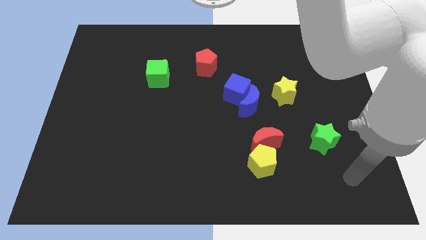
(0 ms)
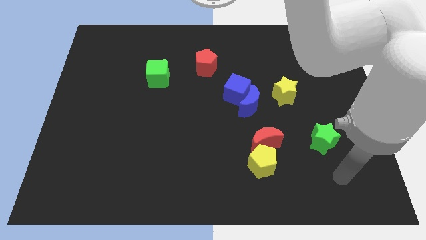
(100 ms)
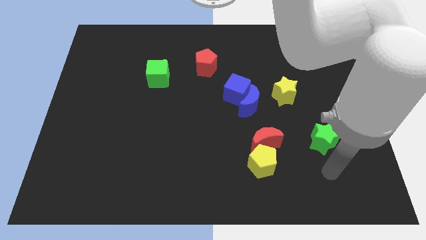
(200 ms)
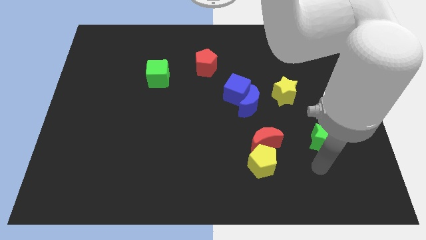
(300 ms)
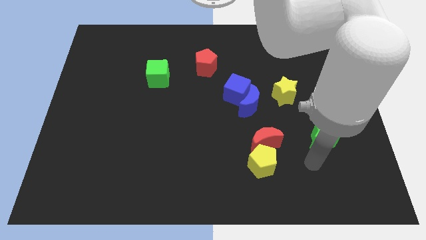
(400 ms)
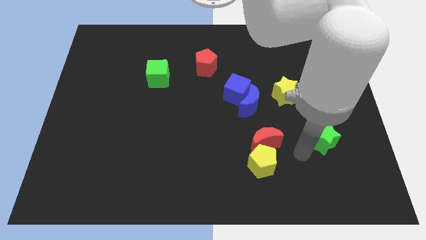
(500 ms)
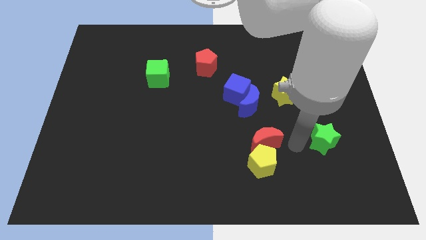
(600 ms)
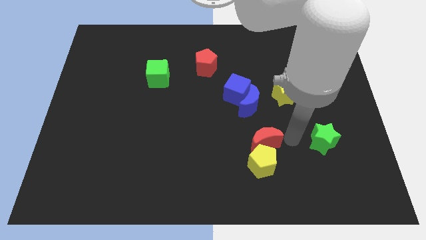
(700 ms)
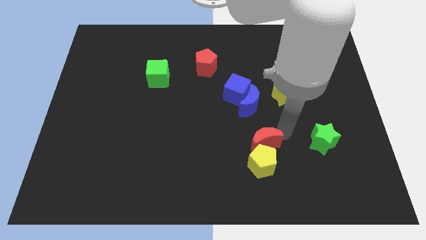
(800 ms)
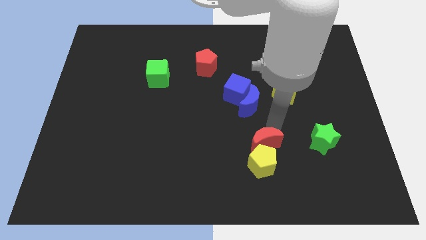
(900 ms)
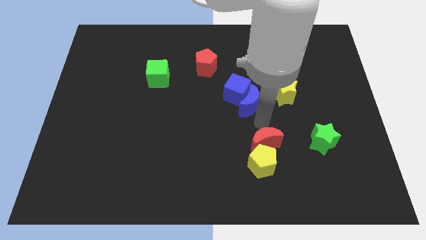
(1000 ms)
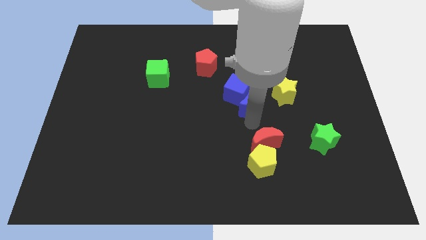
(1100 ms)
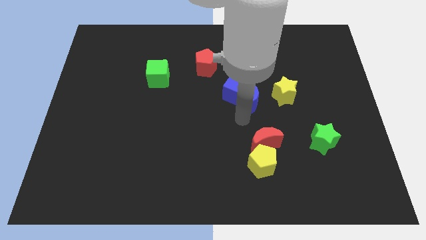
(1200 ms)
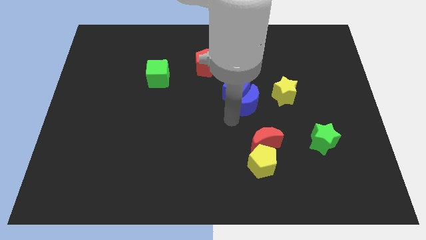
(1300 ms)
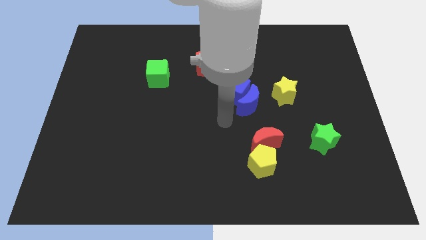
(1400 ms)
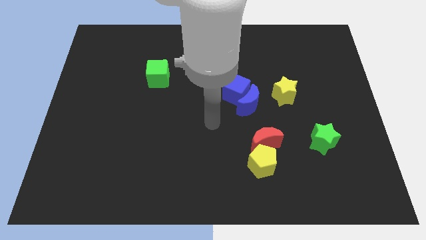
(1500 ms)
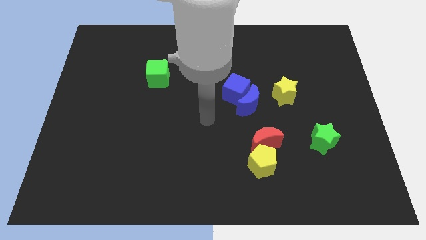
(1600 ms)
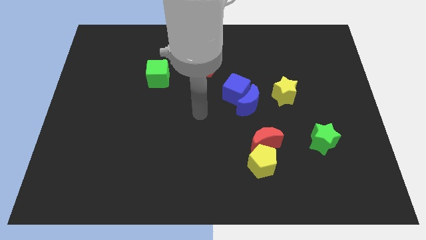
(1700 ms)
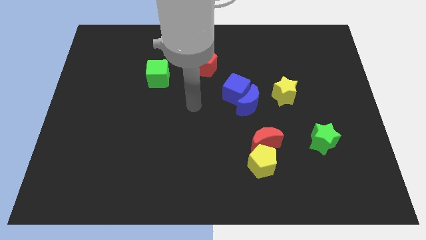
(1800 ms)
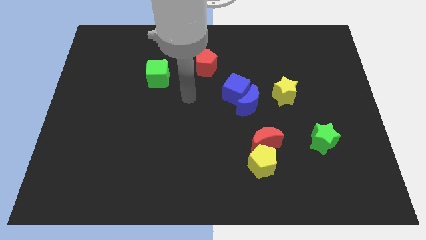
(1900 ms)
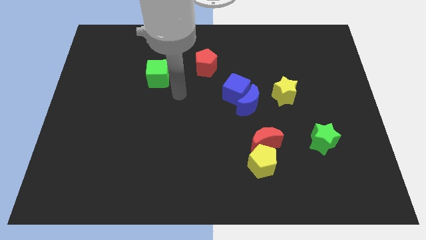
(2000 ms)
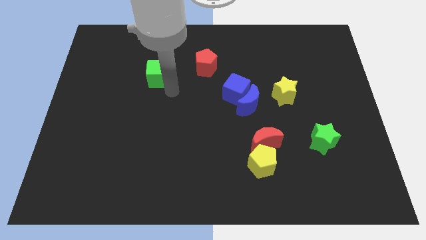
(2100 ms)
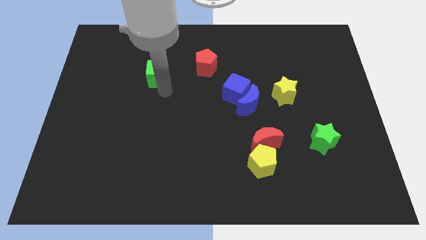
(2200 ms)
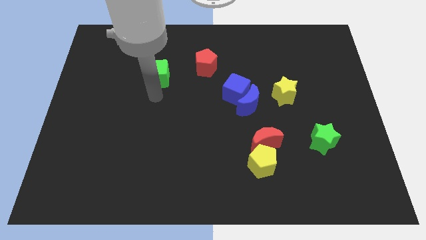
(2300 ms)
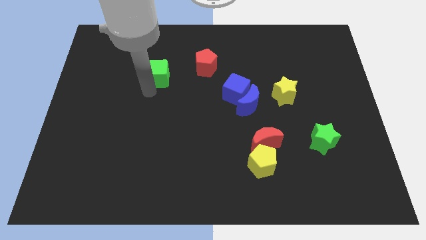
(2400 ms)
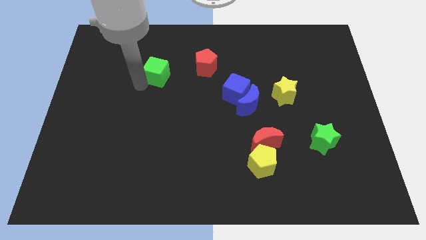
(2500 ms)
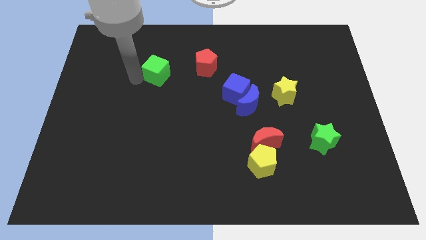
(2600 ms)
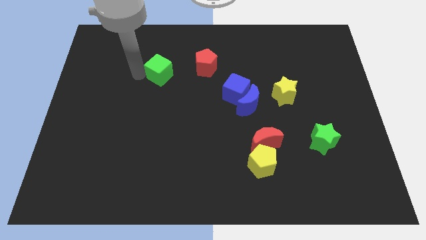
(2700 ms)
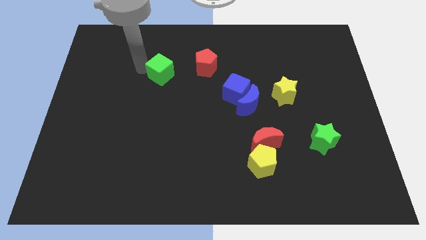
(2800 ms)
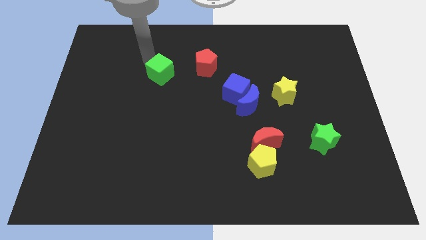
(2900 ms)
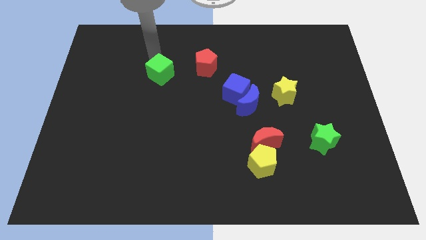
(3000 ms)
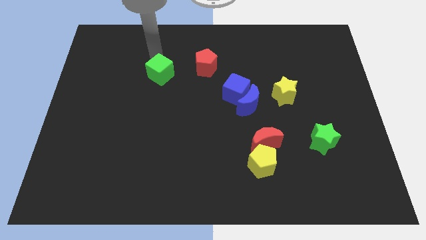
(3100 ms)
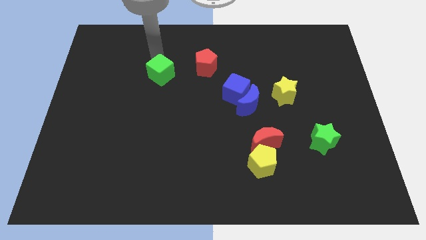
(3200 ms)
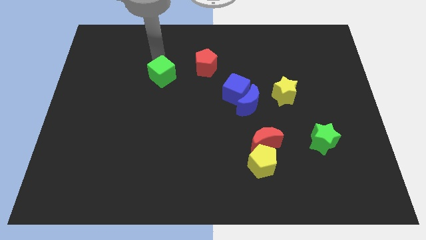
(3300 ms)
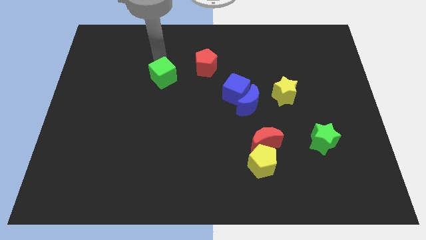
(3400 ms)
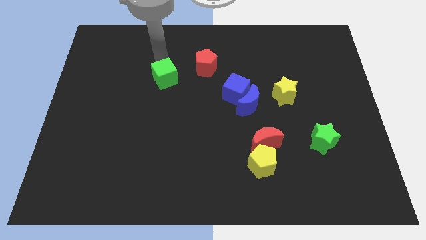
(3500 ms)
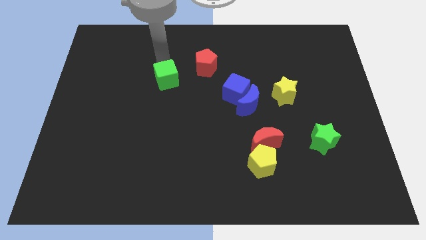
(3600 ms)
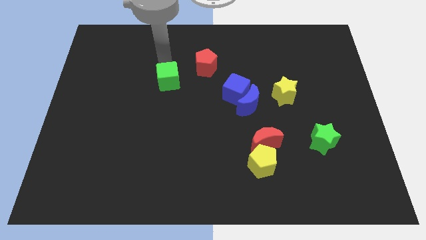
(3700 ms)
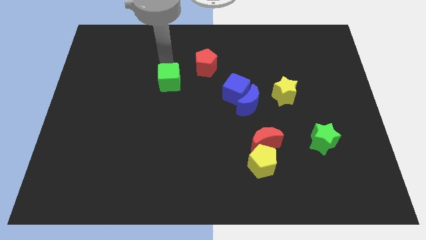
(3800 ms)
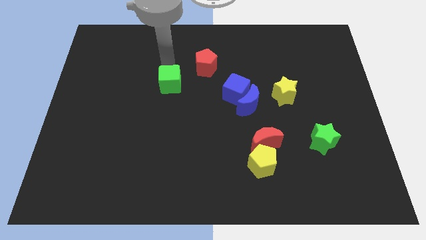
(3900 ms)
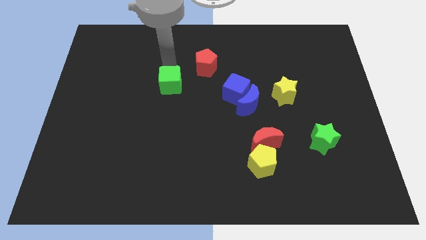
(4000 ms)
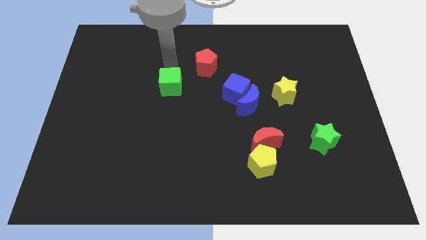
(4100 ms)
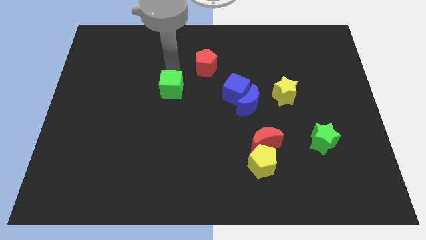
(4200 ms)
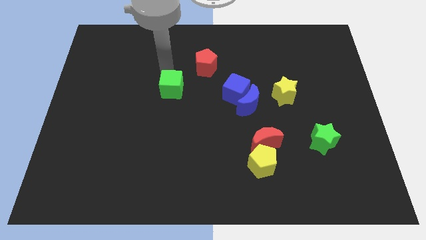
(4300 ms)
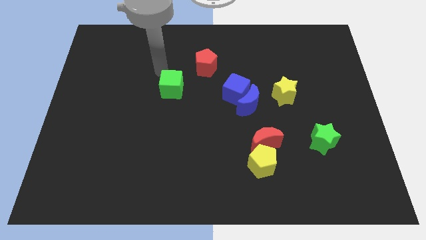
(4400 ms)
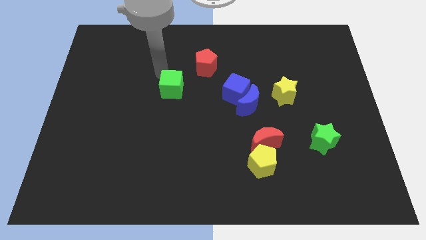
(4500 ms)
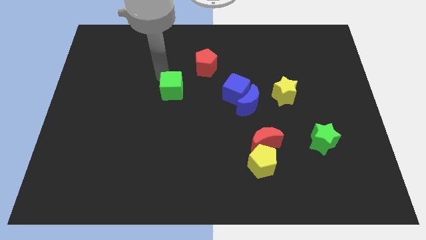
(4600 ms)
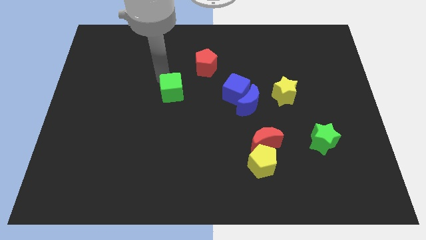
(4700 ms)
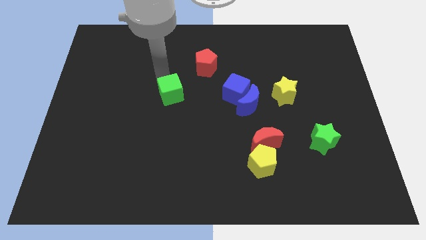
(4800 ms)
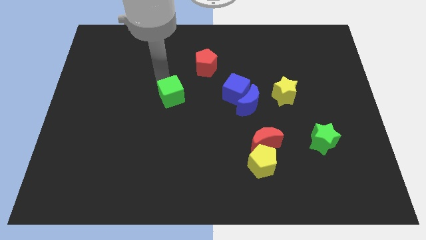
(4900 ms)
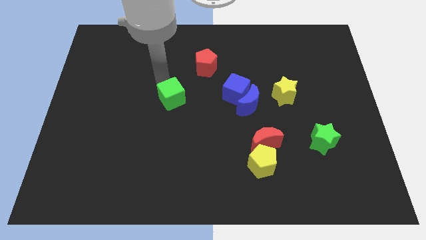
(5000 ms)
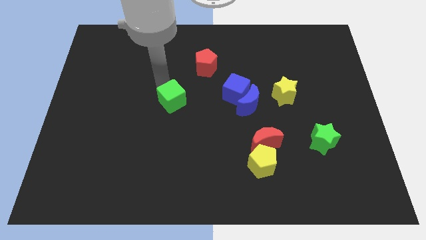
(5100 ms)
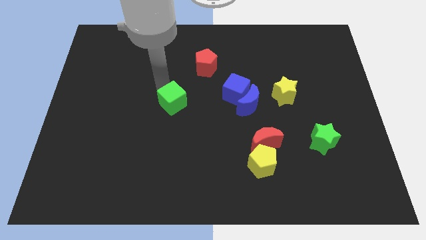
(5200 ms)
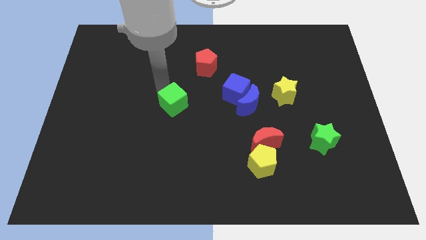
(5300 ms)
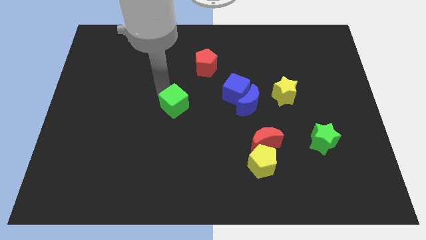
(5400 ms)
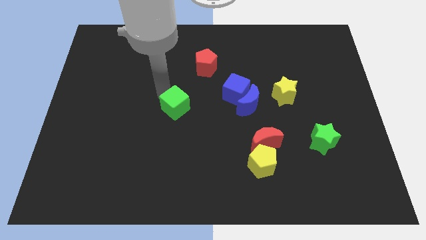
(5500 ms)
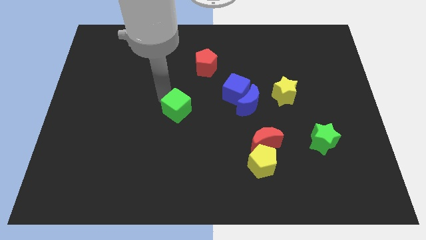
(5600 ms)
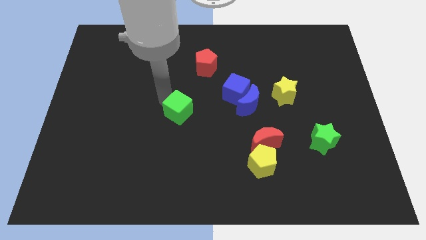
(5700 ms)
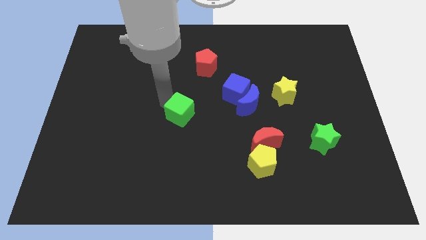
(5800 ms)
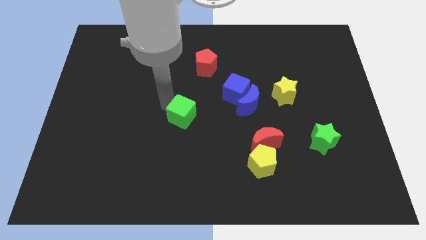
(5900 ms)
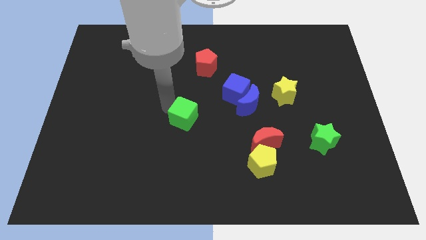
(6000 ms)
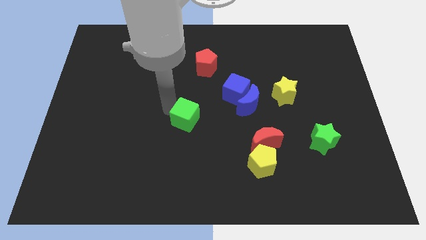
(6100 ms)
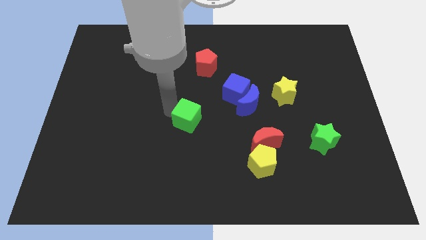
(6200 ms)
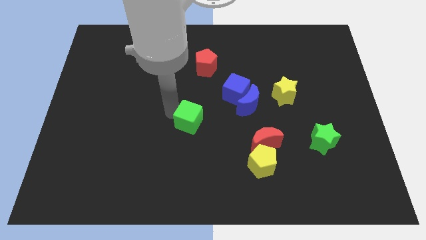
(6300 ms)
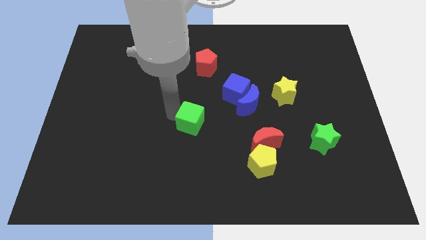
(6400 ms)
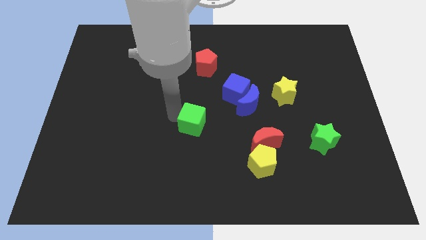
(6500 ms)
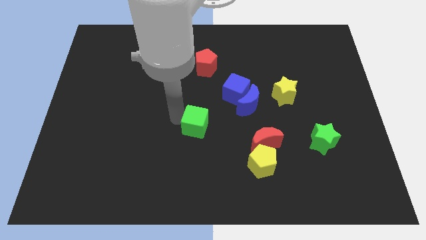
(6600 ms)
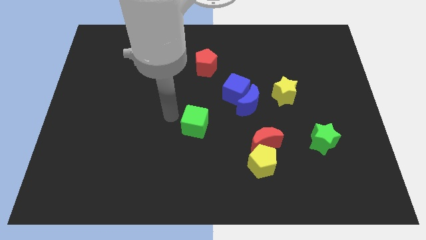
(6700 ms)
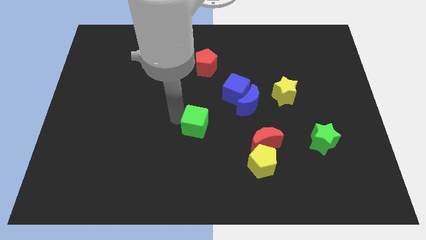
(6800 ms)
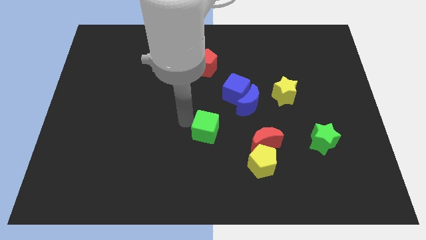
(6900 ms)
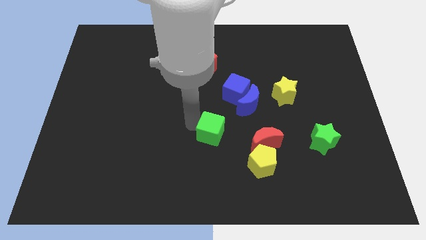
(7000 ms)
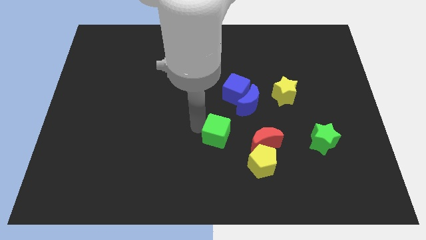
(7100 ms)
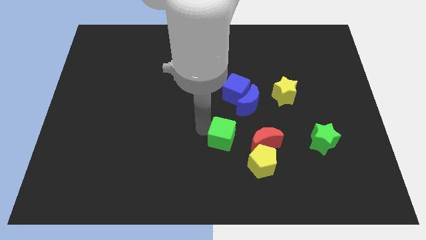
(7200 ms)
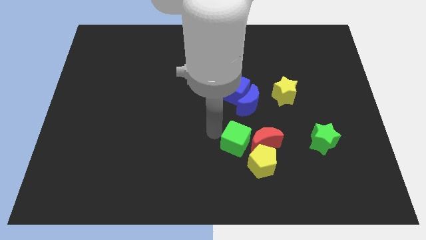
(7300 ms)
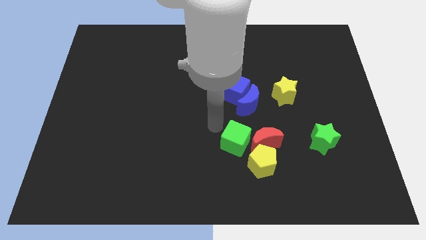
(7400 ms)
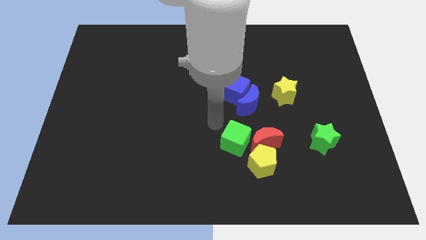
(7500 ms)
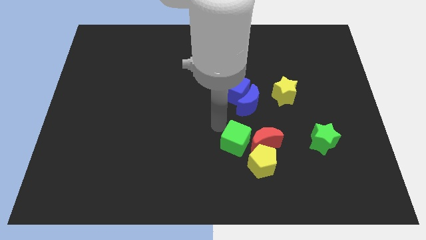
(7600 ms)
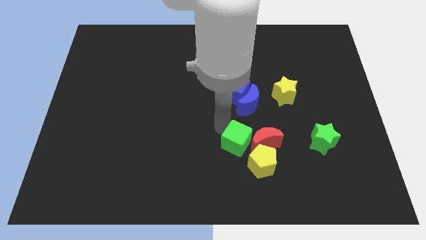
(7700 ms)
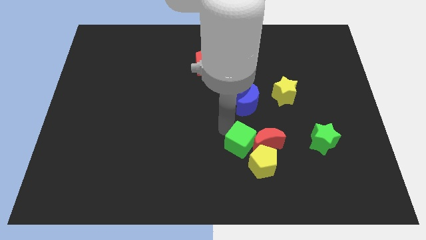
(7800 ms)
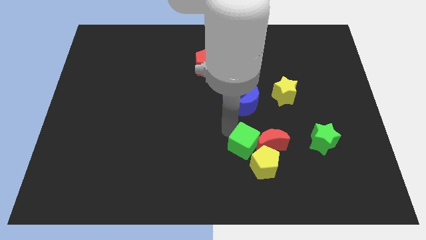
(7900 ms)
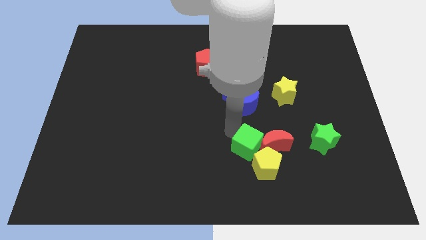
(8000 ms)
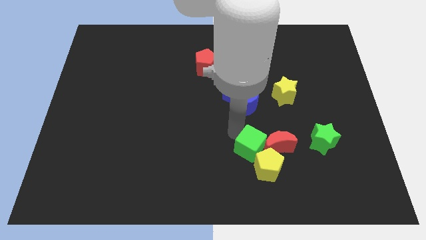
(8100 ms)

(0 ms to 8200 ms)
push the green cube to the yellow pentagon
